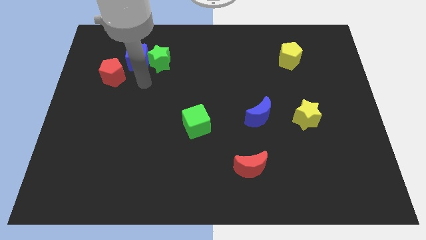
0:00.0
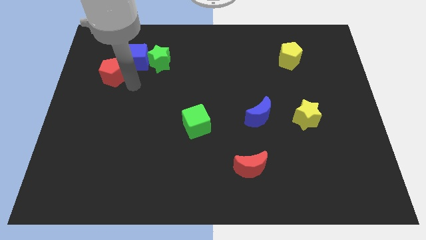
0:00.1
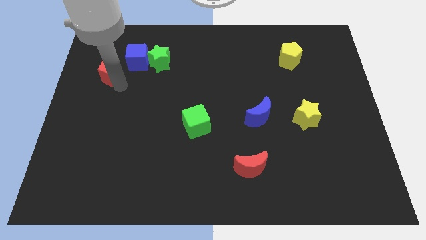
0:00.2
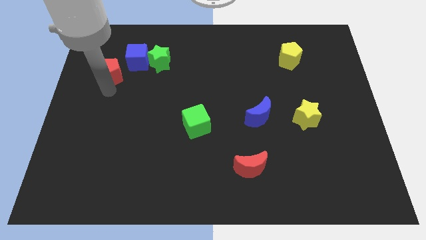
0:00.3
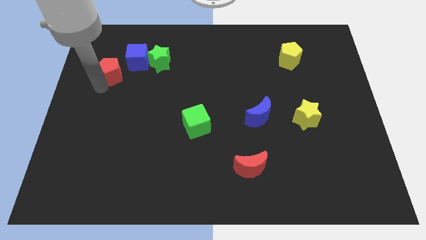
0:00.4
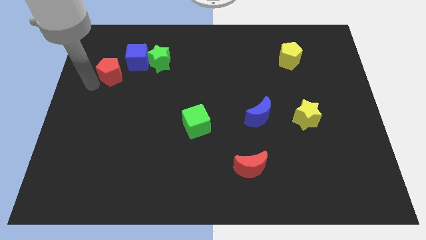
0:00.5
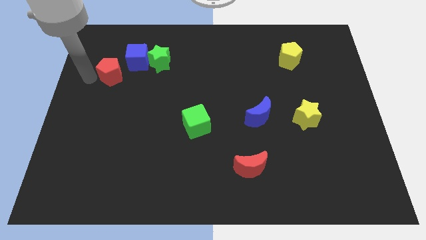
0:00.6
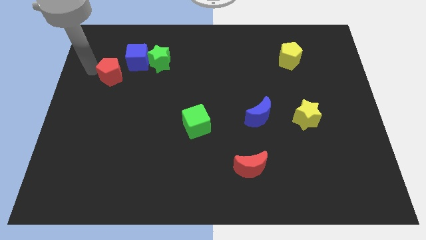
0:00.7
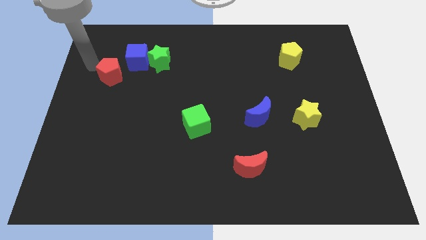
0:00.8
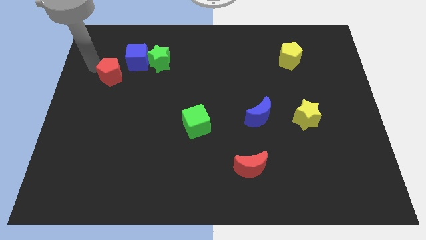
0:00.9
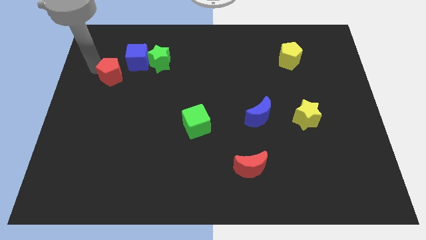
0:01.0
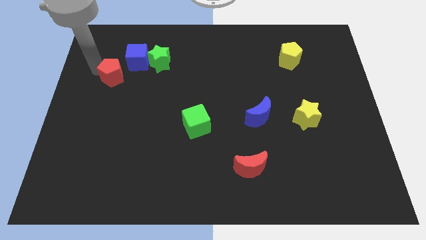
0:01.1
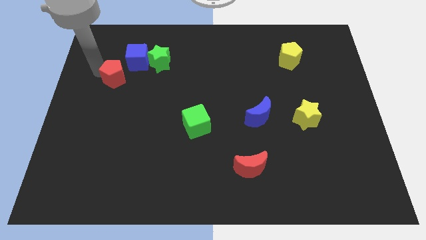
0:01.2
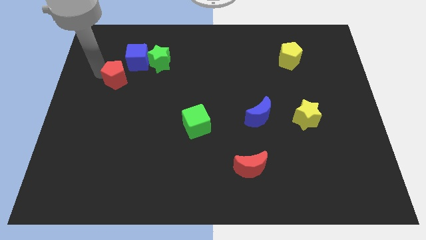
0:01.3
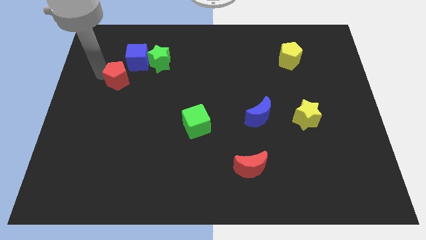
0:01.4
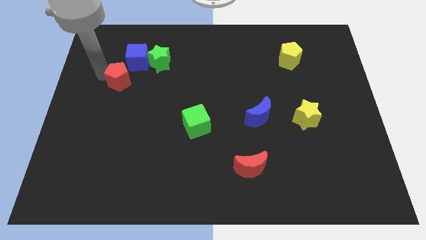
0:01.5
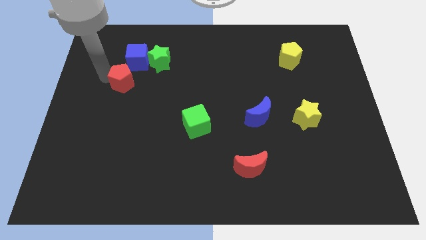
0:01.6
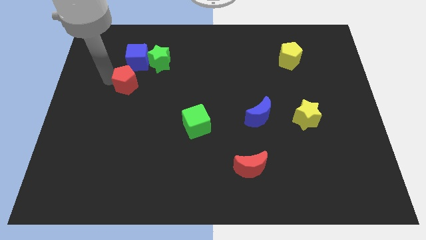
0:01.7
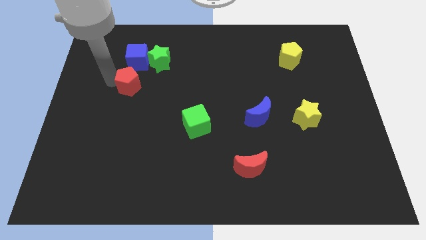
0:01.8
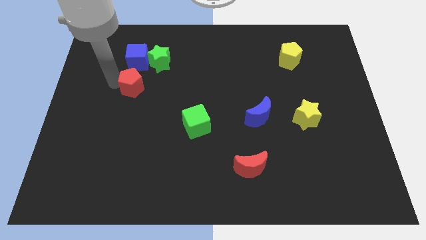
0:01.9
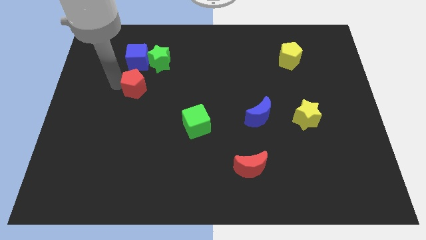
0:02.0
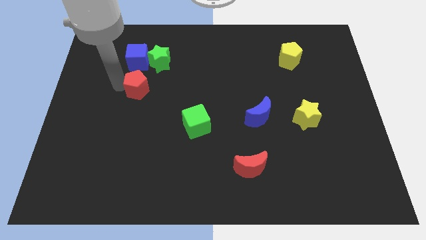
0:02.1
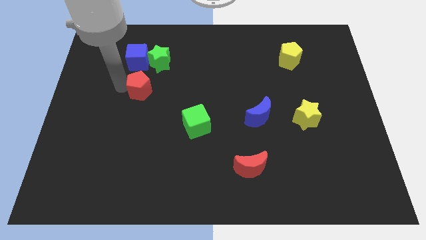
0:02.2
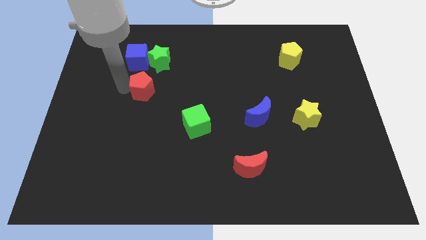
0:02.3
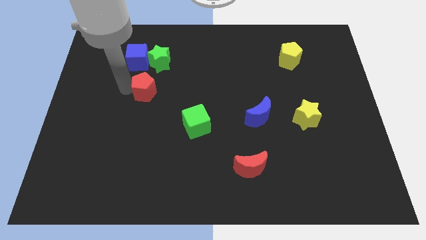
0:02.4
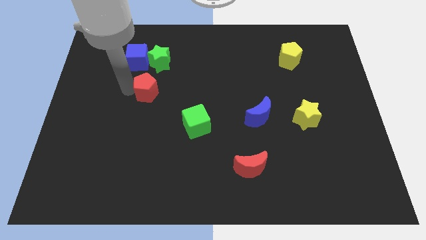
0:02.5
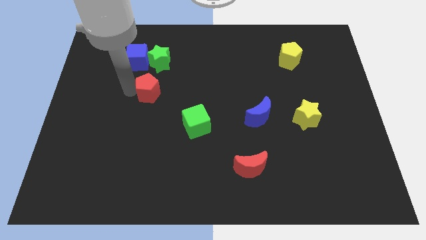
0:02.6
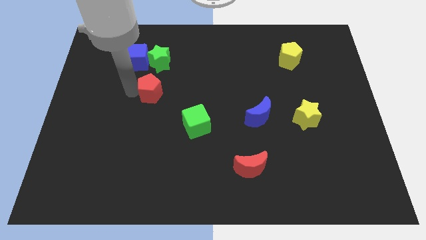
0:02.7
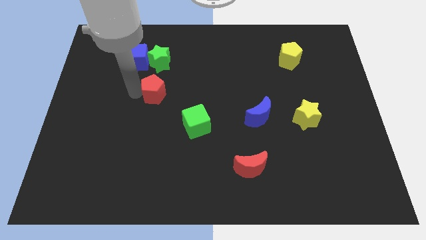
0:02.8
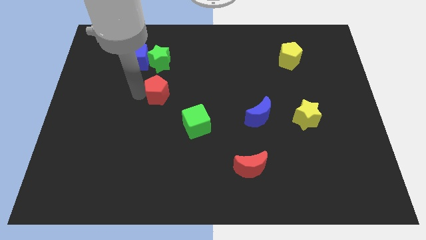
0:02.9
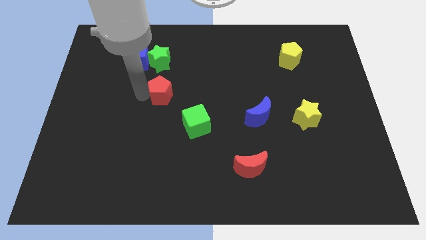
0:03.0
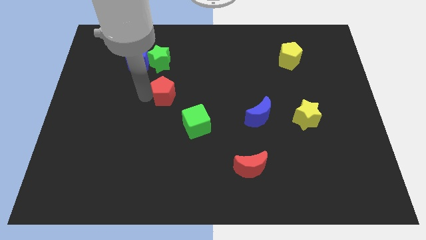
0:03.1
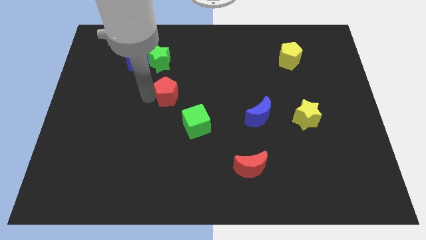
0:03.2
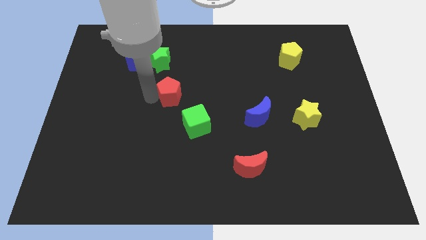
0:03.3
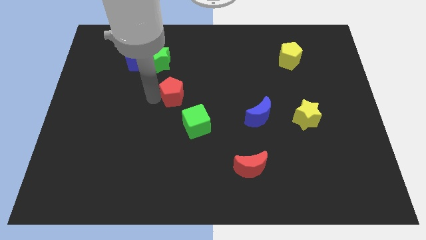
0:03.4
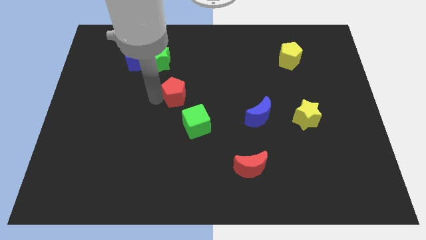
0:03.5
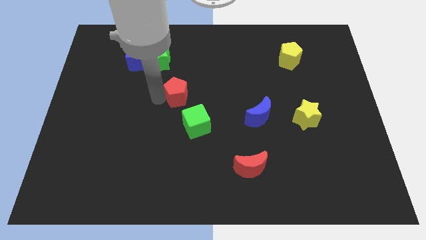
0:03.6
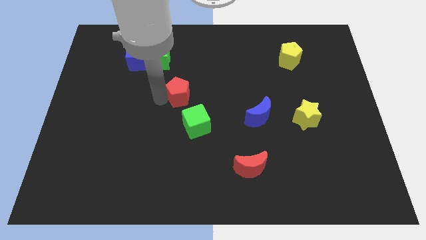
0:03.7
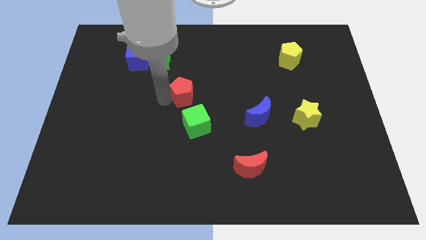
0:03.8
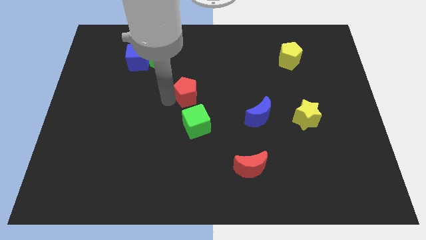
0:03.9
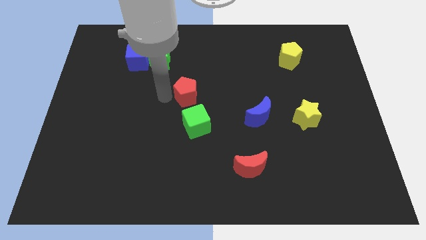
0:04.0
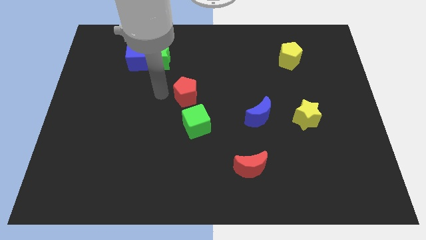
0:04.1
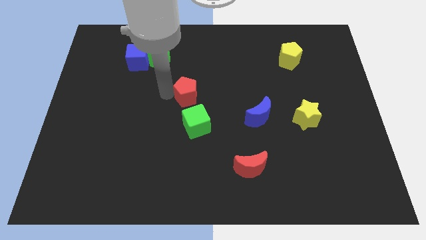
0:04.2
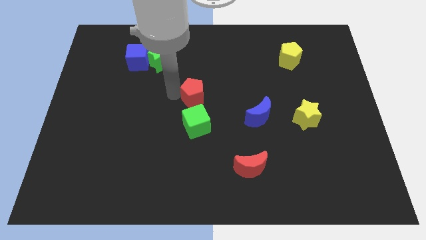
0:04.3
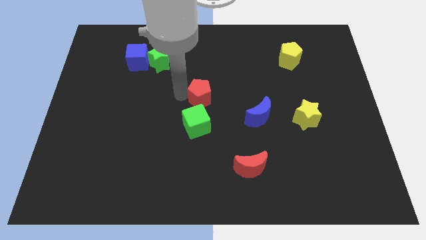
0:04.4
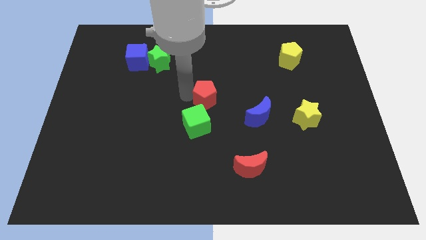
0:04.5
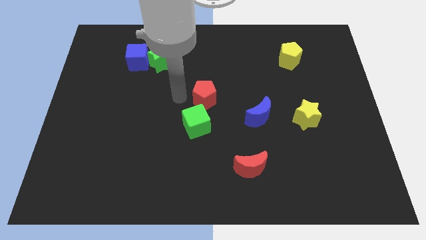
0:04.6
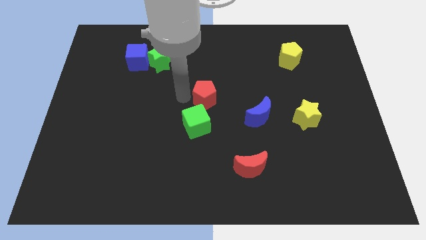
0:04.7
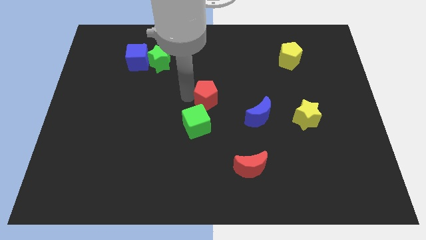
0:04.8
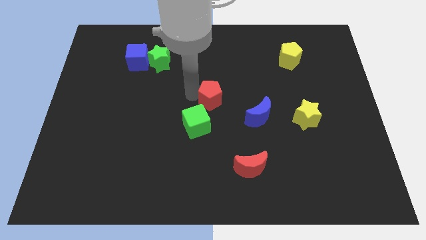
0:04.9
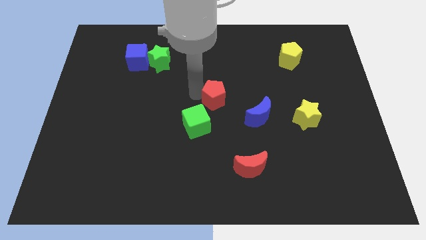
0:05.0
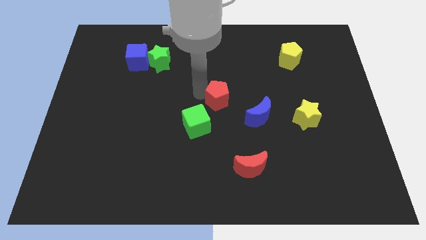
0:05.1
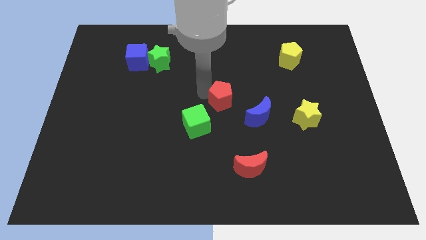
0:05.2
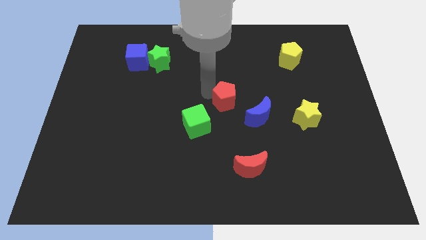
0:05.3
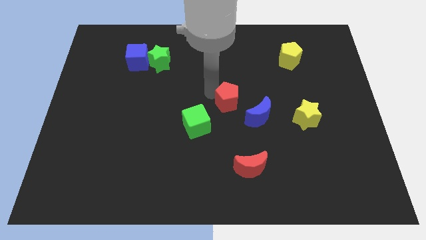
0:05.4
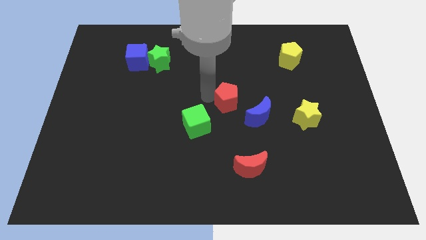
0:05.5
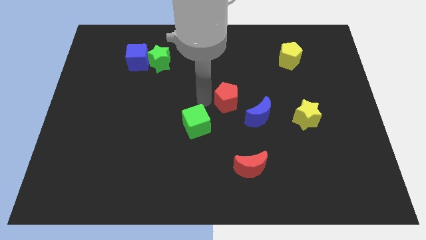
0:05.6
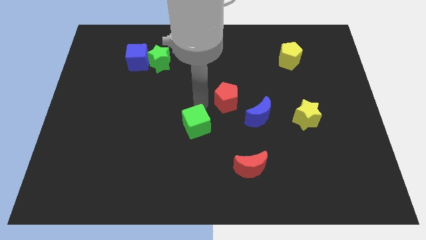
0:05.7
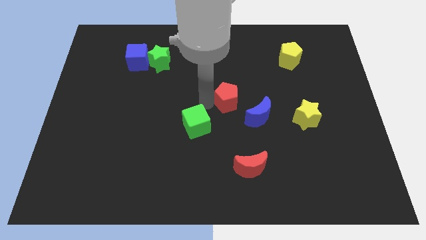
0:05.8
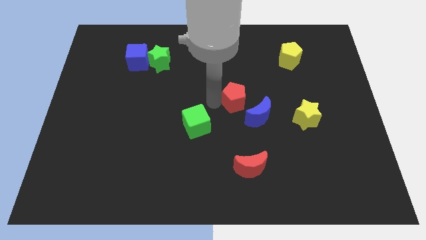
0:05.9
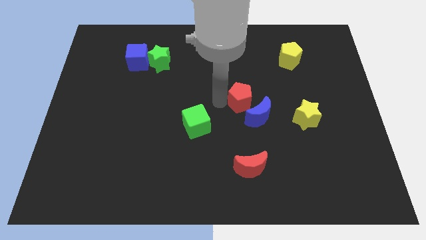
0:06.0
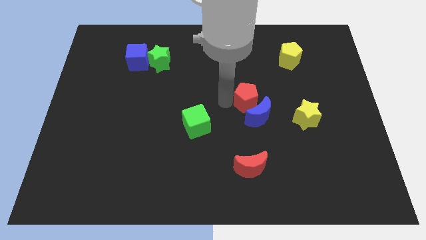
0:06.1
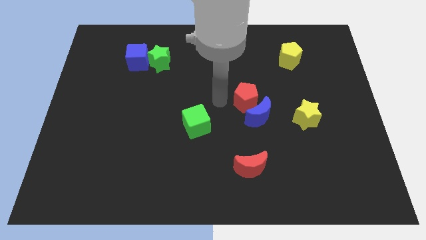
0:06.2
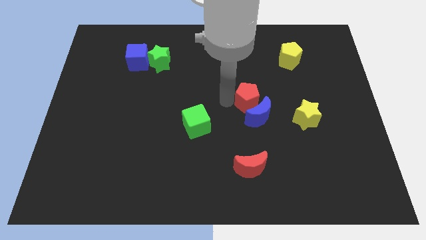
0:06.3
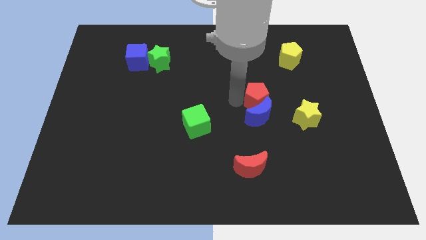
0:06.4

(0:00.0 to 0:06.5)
slide the red pentagon to the top right of the blue moon
